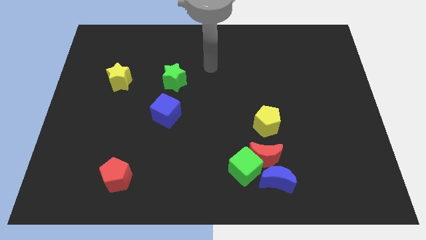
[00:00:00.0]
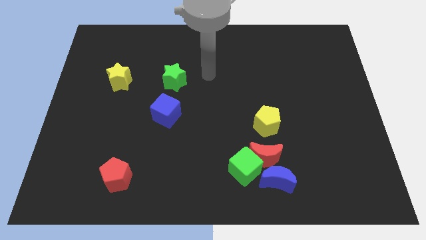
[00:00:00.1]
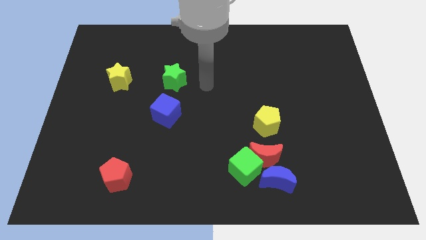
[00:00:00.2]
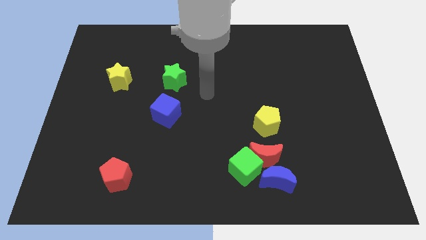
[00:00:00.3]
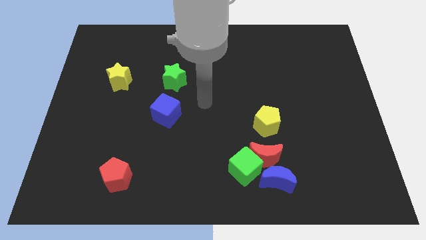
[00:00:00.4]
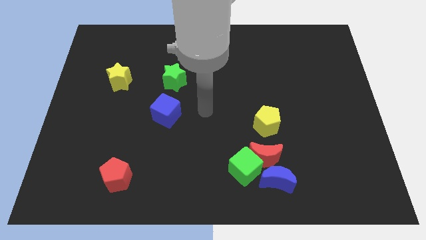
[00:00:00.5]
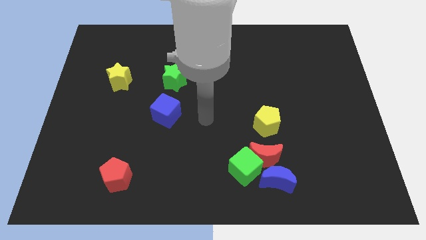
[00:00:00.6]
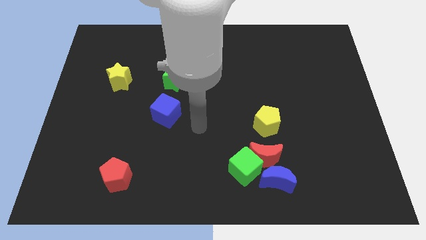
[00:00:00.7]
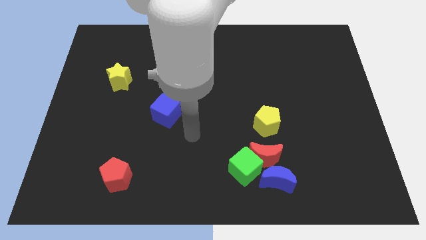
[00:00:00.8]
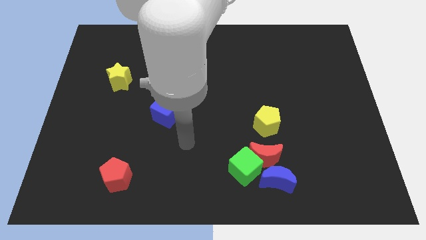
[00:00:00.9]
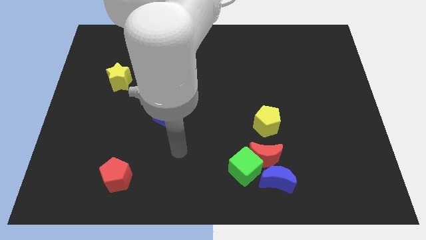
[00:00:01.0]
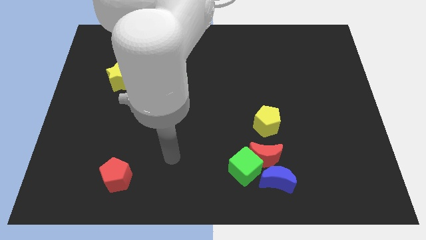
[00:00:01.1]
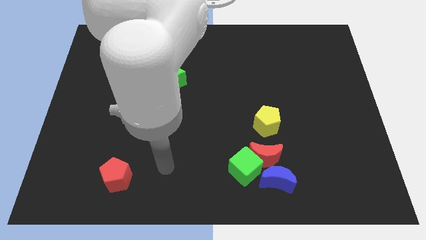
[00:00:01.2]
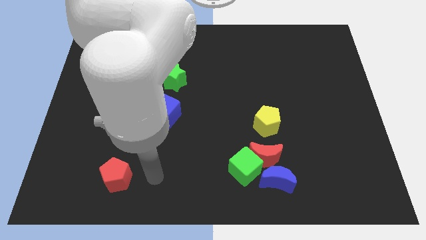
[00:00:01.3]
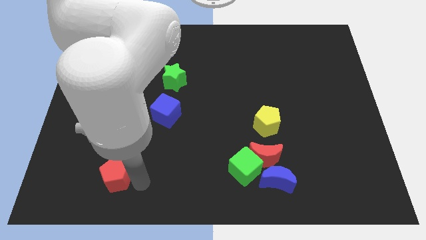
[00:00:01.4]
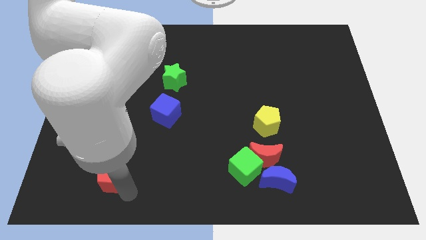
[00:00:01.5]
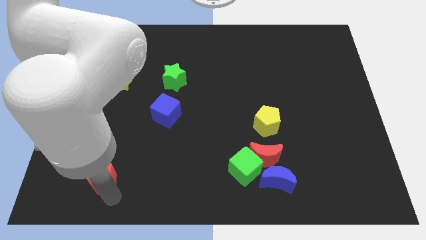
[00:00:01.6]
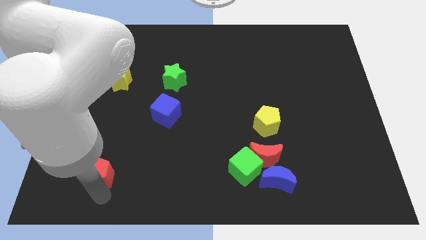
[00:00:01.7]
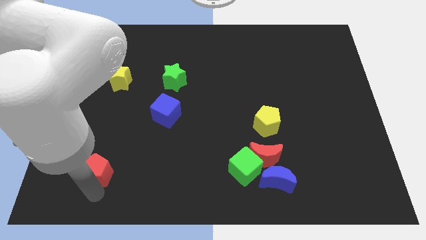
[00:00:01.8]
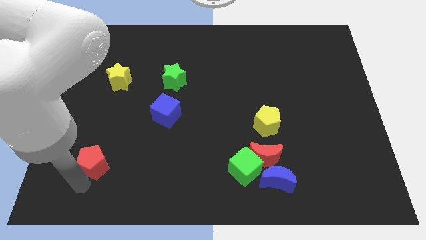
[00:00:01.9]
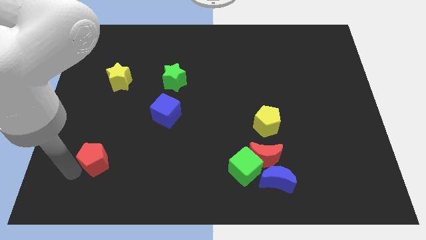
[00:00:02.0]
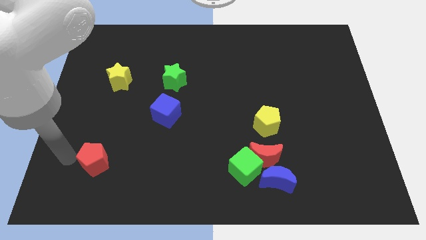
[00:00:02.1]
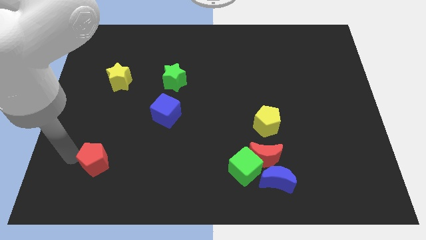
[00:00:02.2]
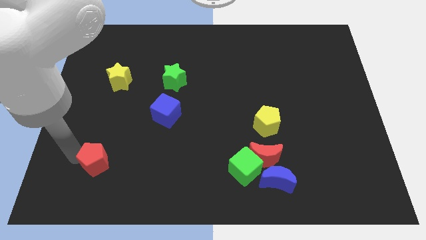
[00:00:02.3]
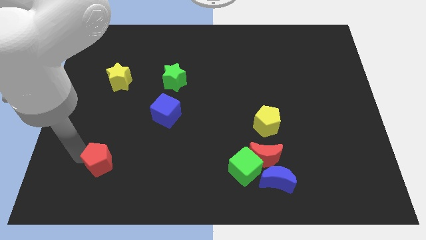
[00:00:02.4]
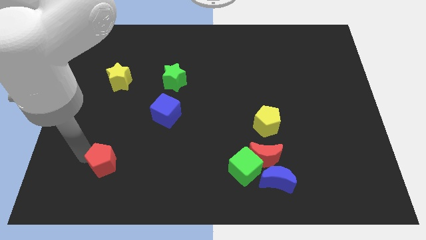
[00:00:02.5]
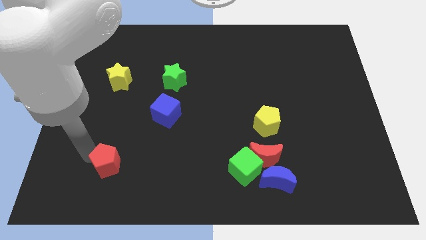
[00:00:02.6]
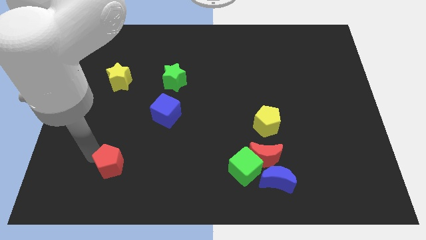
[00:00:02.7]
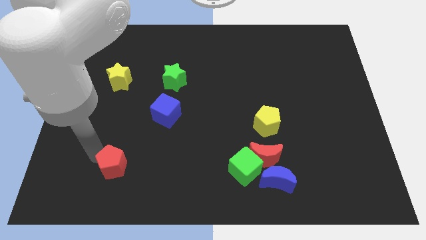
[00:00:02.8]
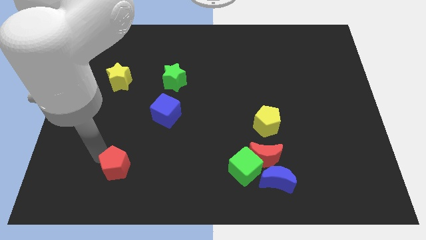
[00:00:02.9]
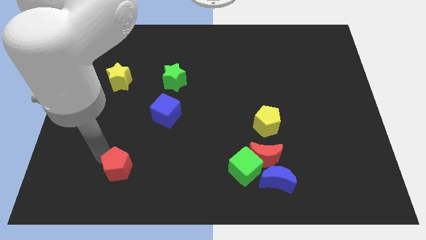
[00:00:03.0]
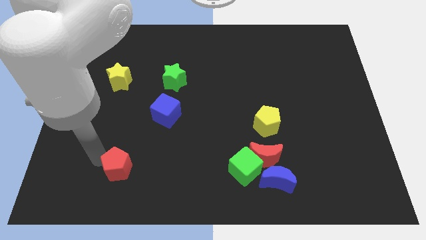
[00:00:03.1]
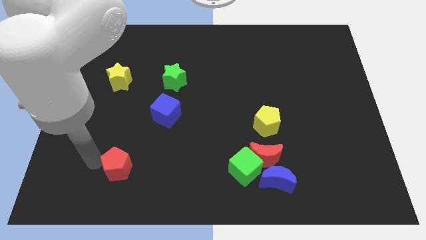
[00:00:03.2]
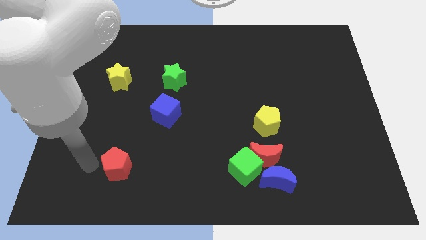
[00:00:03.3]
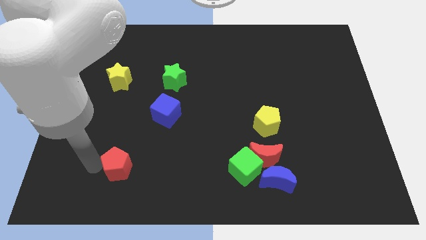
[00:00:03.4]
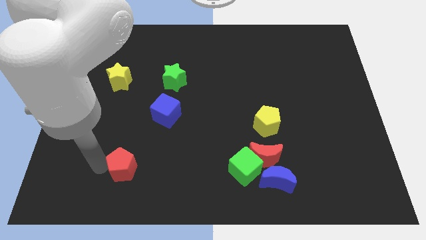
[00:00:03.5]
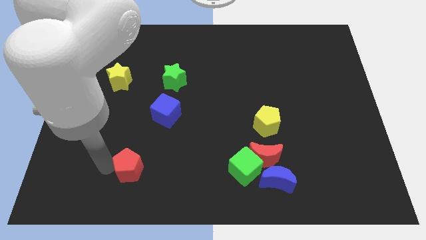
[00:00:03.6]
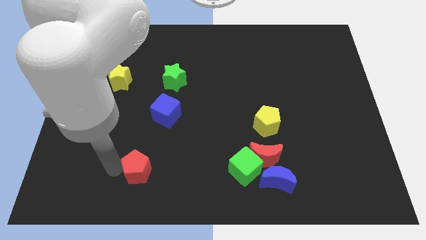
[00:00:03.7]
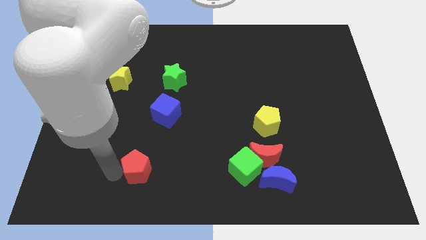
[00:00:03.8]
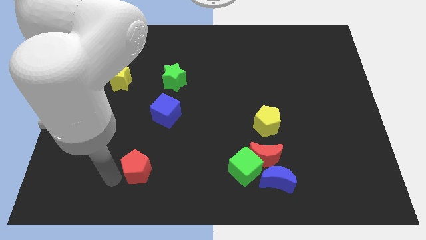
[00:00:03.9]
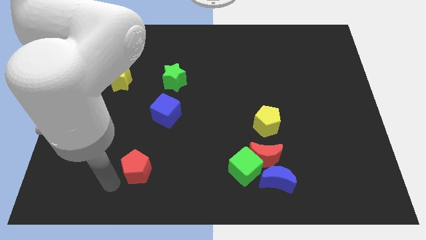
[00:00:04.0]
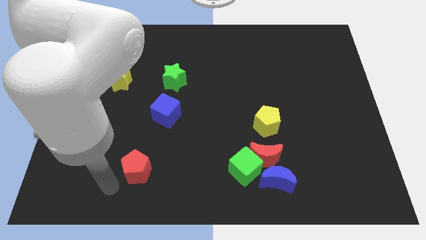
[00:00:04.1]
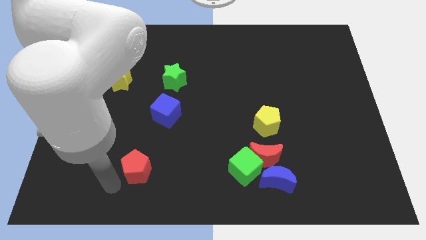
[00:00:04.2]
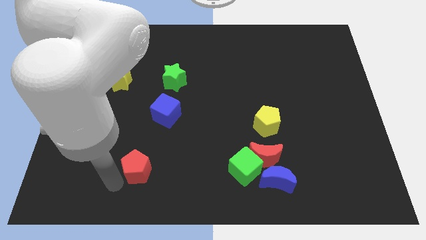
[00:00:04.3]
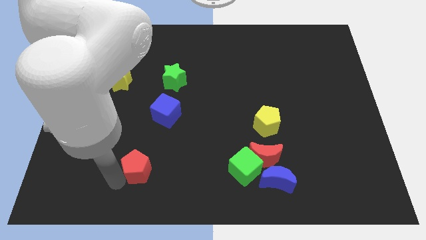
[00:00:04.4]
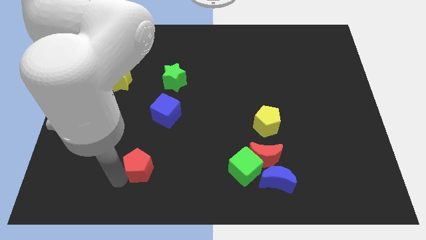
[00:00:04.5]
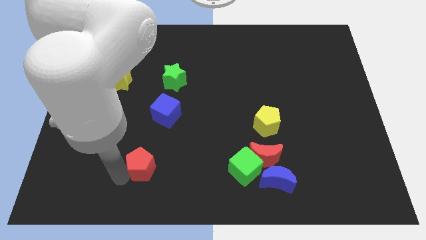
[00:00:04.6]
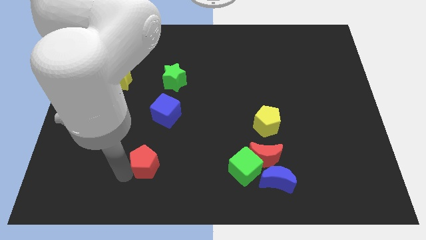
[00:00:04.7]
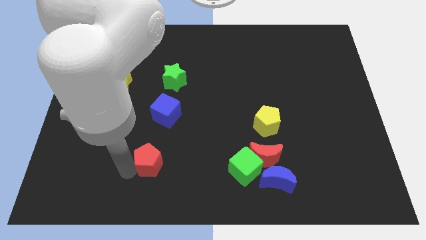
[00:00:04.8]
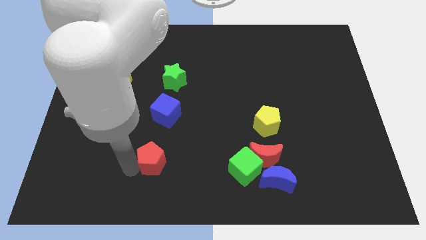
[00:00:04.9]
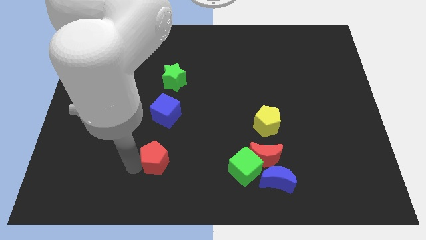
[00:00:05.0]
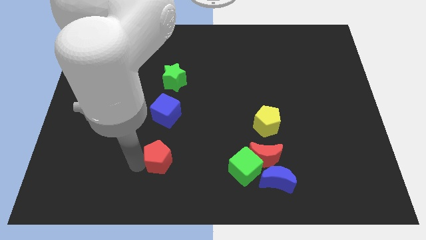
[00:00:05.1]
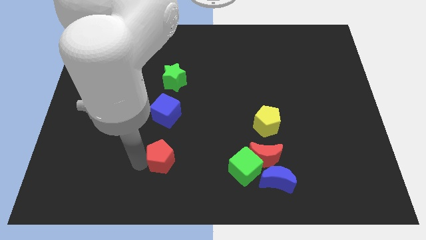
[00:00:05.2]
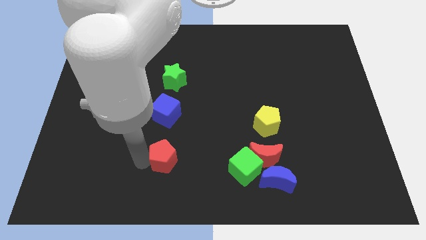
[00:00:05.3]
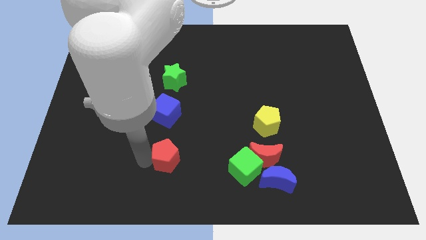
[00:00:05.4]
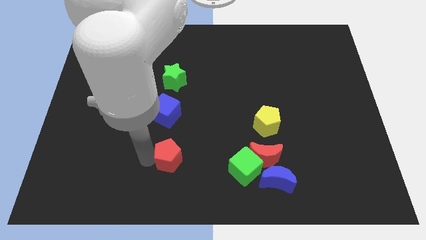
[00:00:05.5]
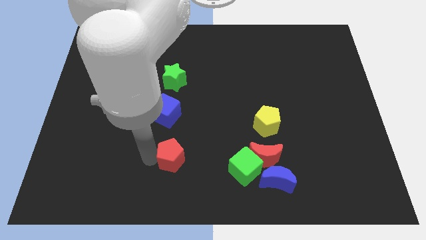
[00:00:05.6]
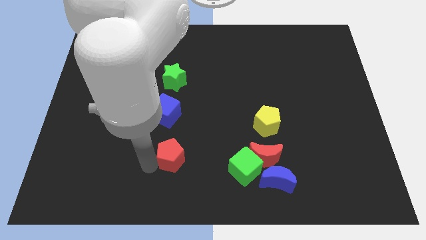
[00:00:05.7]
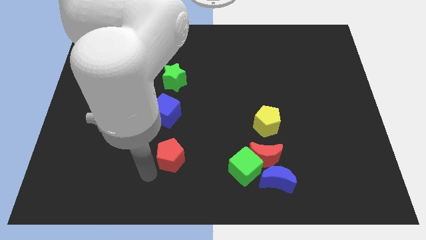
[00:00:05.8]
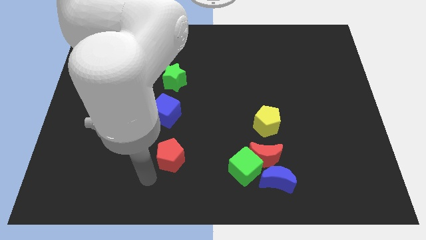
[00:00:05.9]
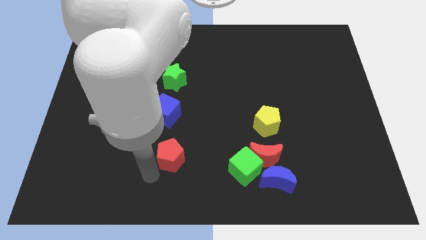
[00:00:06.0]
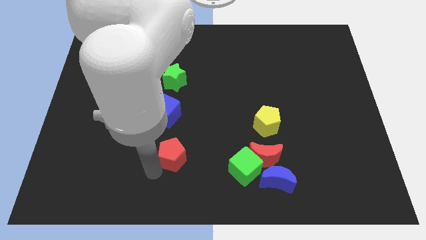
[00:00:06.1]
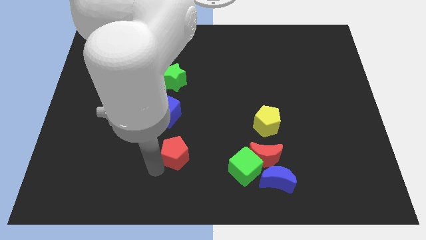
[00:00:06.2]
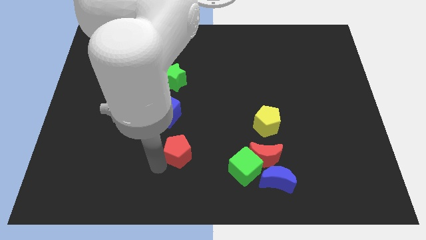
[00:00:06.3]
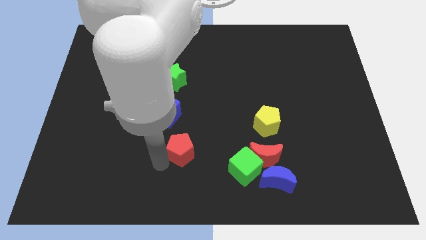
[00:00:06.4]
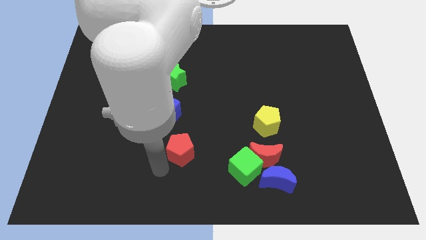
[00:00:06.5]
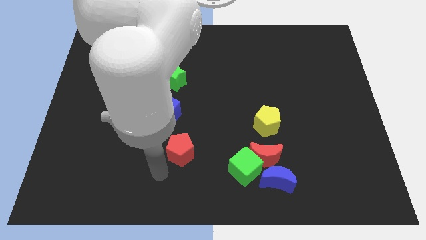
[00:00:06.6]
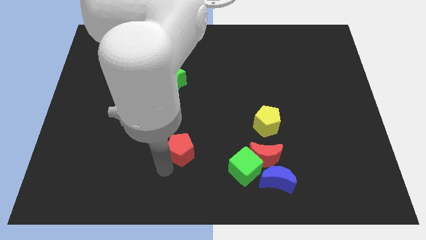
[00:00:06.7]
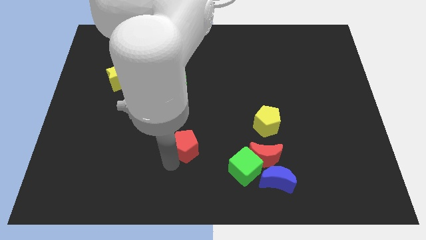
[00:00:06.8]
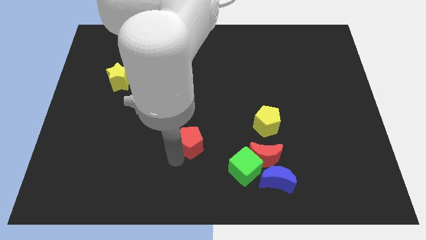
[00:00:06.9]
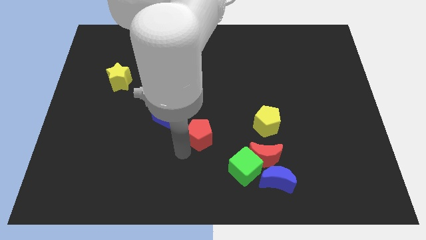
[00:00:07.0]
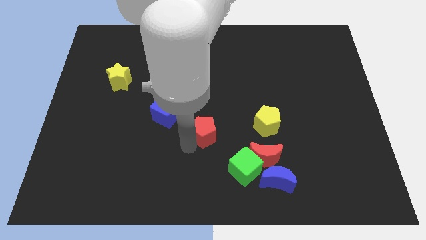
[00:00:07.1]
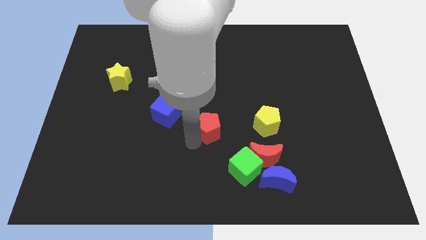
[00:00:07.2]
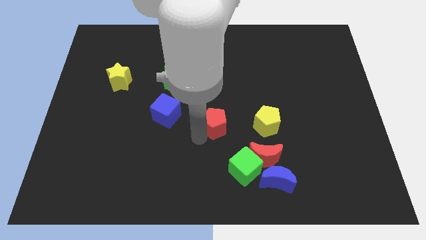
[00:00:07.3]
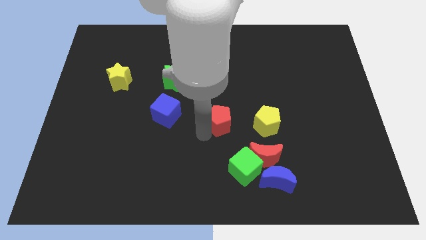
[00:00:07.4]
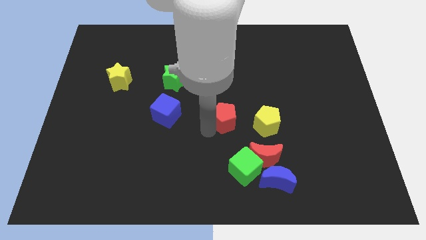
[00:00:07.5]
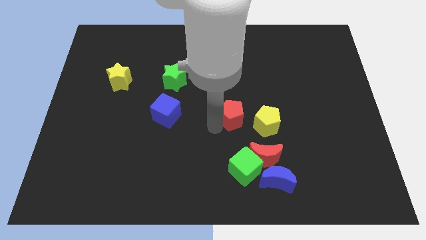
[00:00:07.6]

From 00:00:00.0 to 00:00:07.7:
move the red pentagon to the top left side of the yellow pentagon

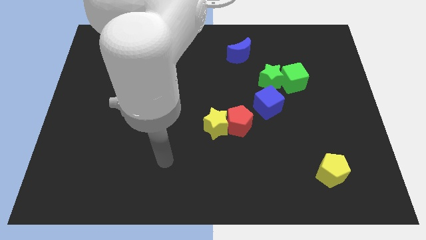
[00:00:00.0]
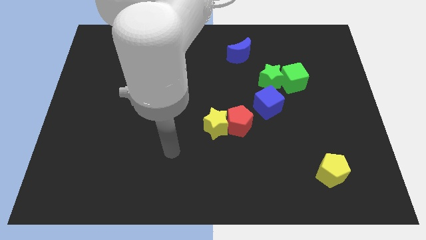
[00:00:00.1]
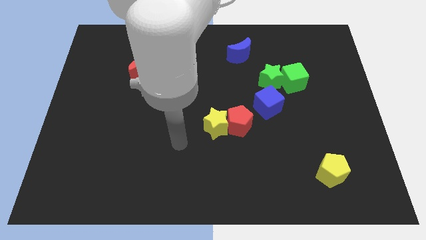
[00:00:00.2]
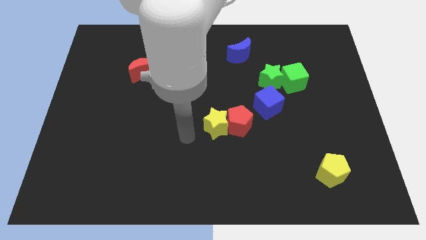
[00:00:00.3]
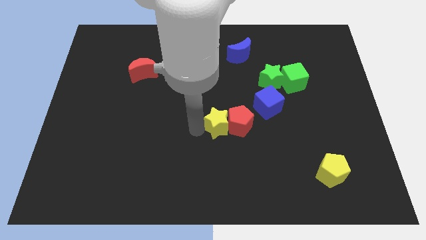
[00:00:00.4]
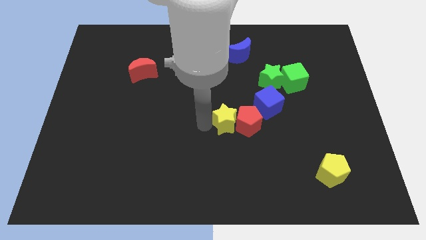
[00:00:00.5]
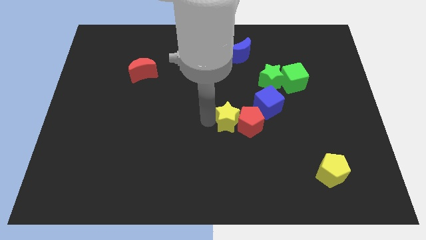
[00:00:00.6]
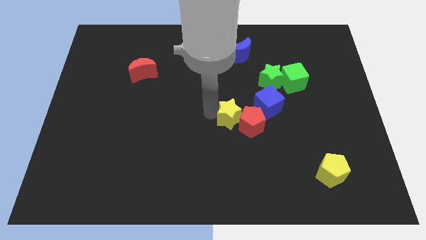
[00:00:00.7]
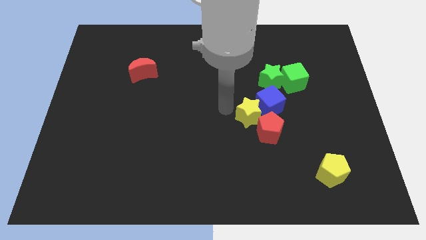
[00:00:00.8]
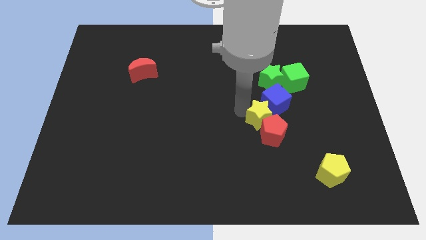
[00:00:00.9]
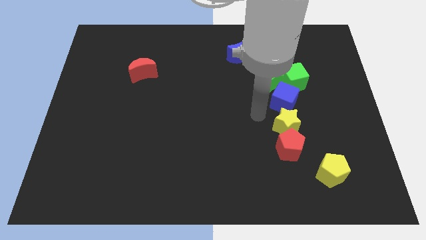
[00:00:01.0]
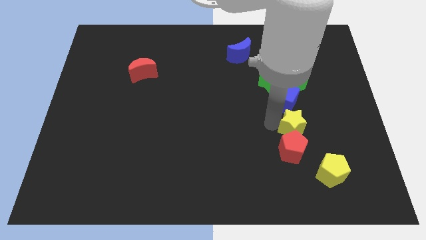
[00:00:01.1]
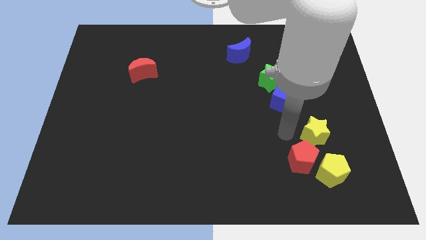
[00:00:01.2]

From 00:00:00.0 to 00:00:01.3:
push the red pentagon left of the yellow pentagon
